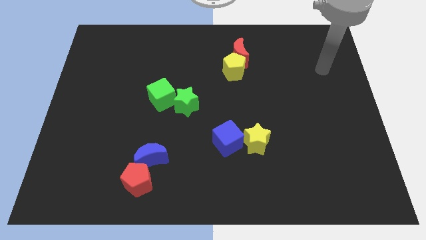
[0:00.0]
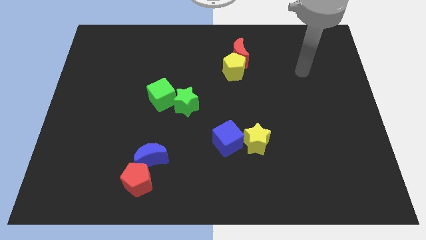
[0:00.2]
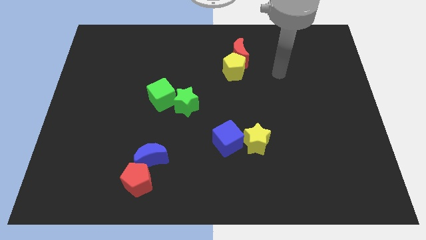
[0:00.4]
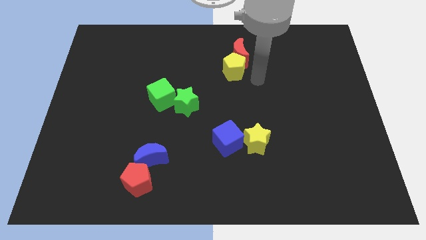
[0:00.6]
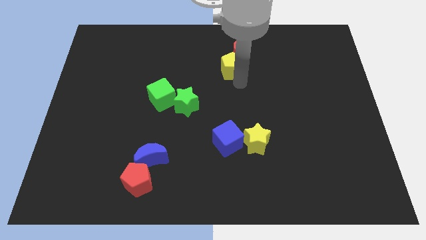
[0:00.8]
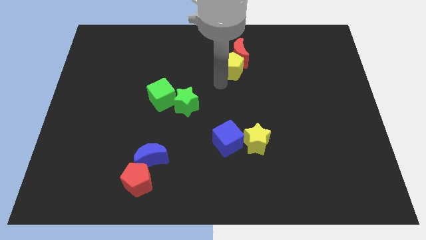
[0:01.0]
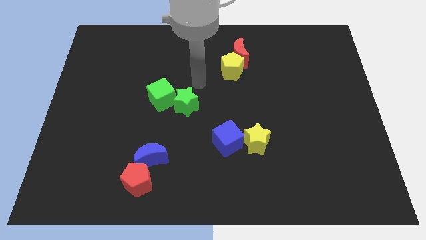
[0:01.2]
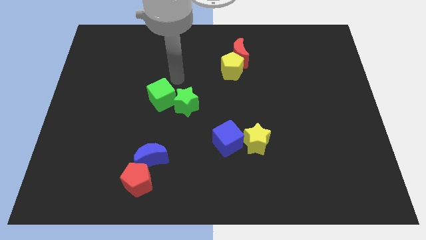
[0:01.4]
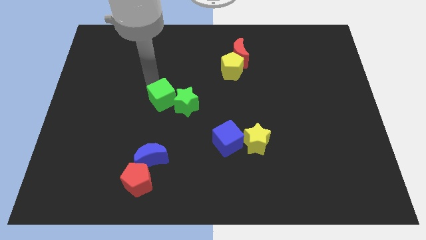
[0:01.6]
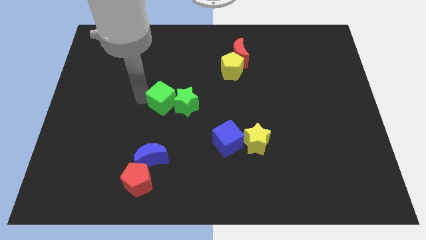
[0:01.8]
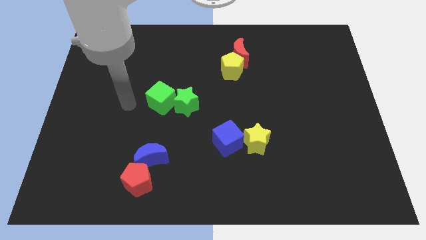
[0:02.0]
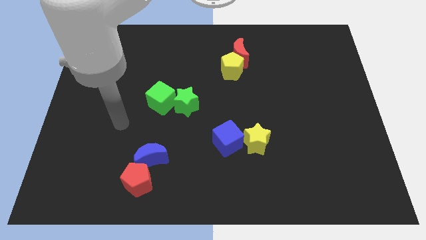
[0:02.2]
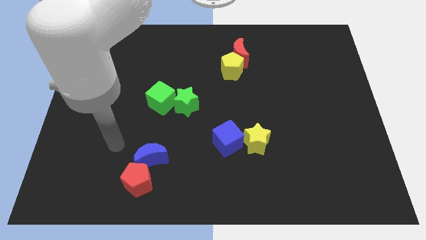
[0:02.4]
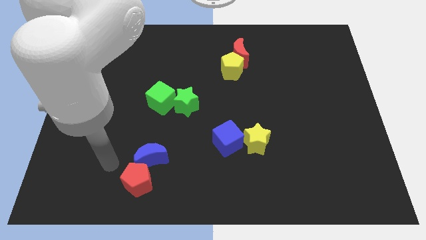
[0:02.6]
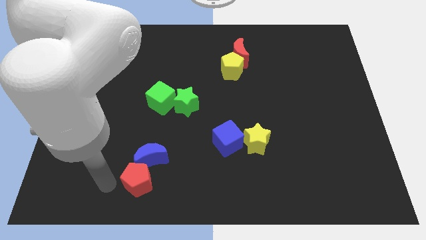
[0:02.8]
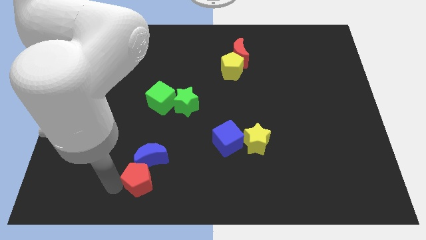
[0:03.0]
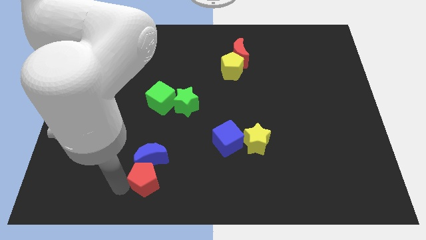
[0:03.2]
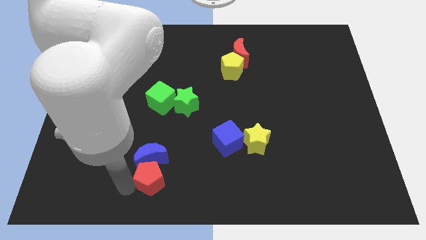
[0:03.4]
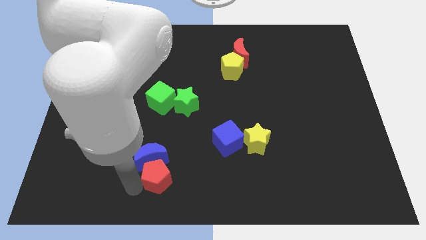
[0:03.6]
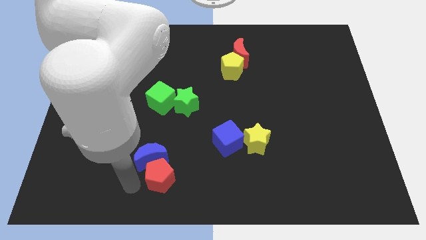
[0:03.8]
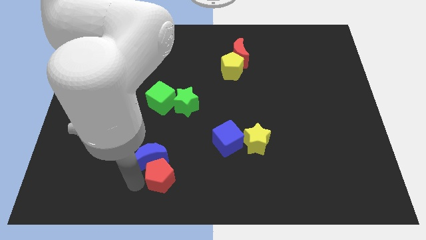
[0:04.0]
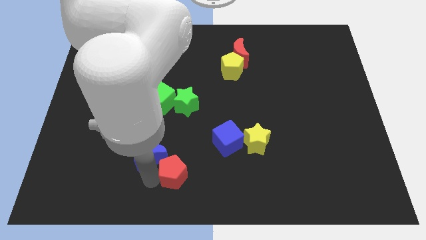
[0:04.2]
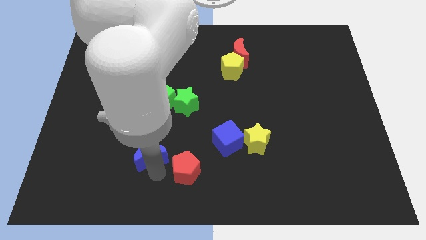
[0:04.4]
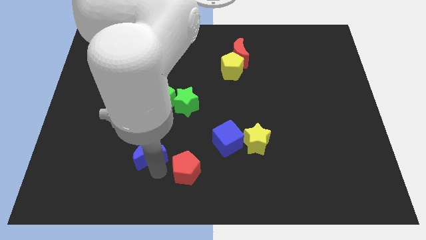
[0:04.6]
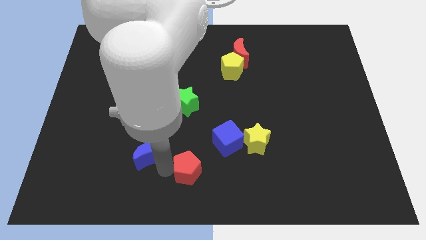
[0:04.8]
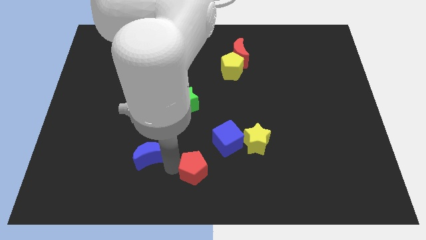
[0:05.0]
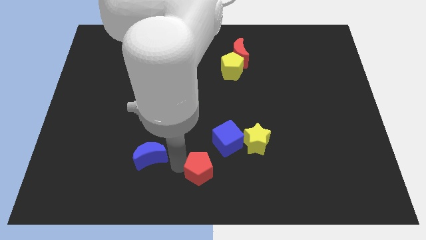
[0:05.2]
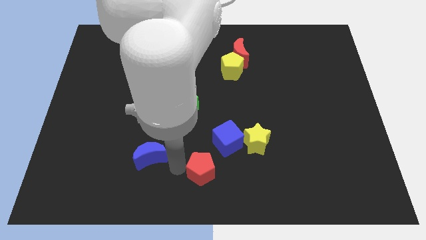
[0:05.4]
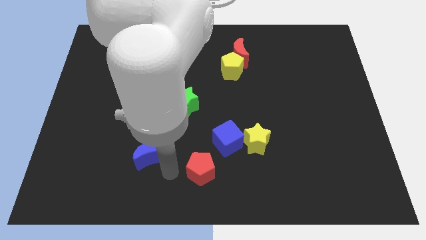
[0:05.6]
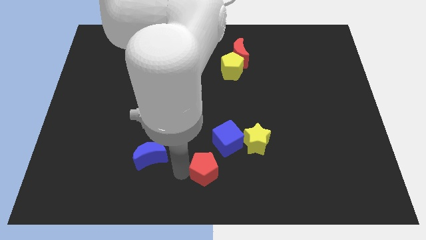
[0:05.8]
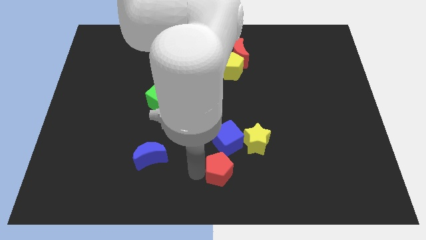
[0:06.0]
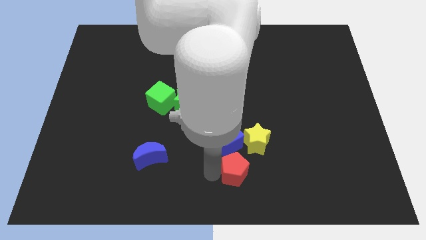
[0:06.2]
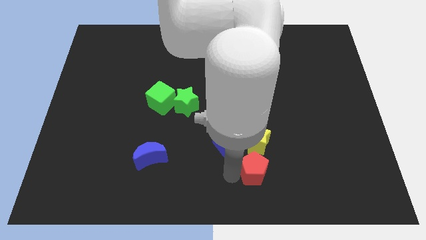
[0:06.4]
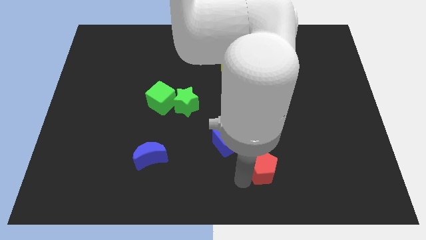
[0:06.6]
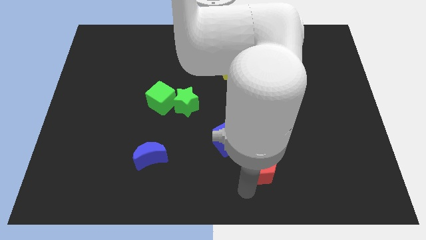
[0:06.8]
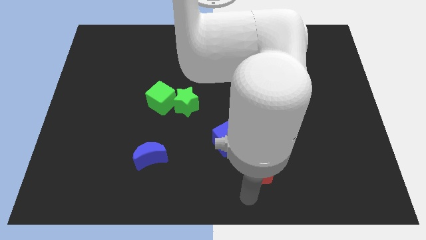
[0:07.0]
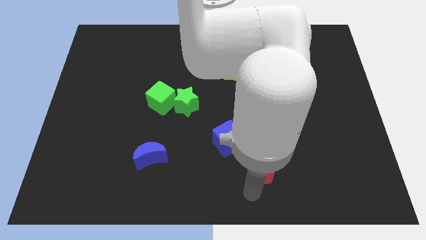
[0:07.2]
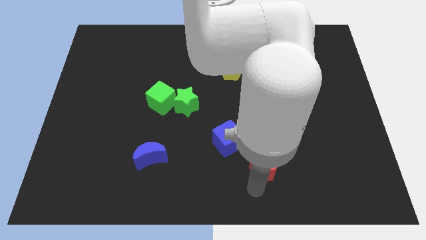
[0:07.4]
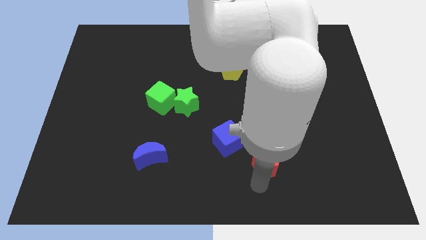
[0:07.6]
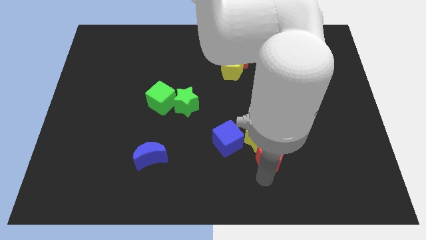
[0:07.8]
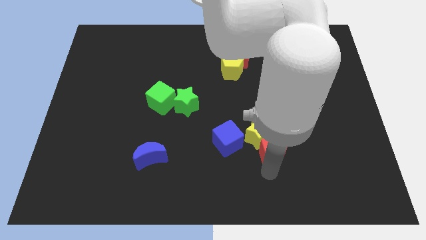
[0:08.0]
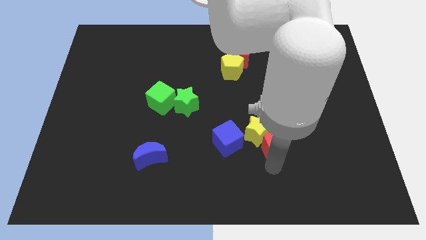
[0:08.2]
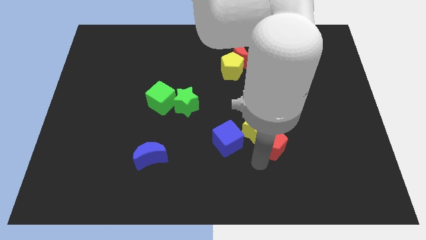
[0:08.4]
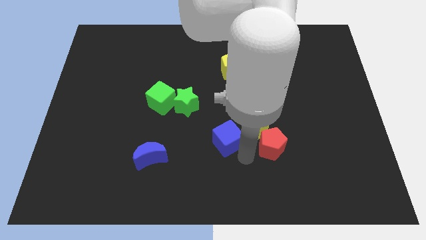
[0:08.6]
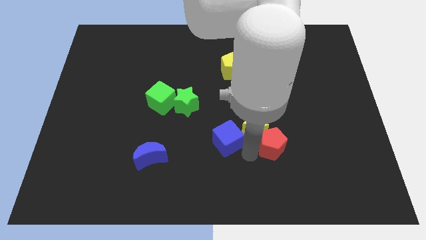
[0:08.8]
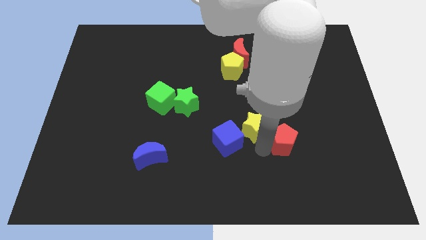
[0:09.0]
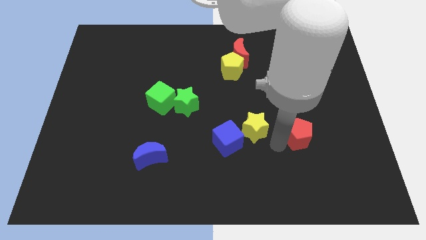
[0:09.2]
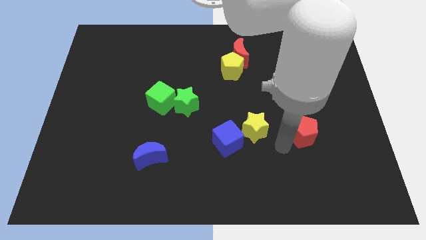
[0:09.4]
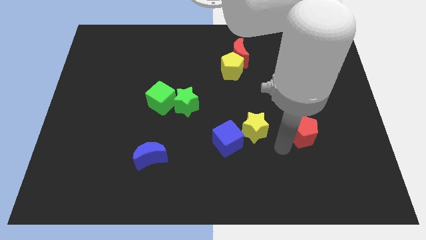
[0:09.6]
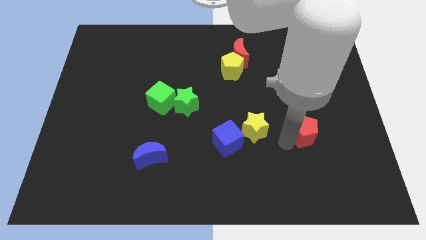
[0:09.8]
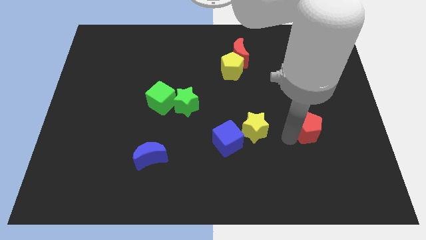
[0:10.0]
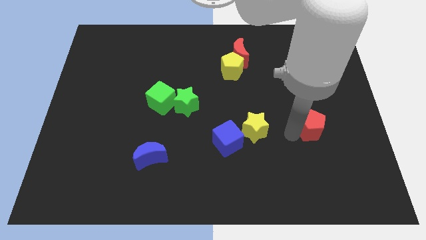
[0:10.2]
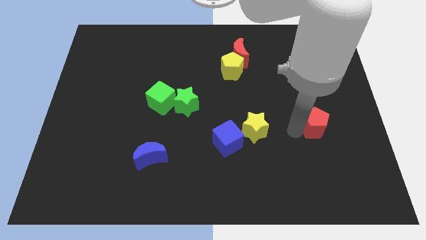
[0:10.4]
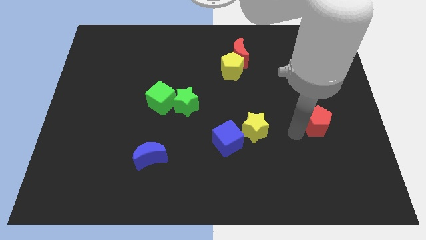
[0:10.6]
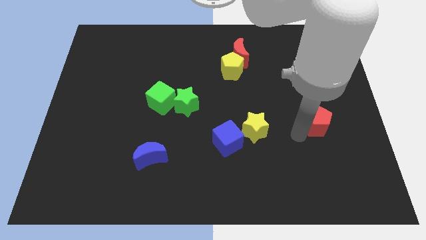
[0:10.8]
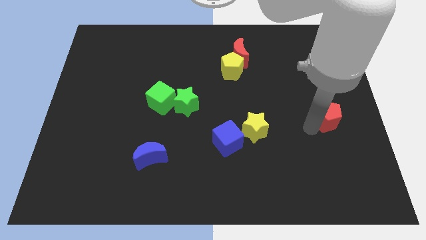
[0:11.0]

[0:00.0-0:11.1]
put the red pentagon to the right side of the board

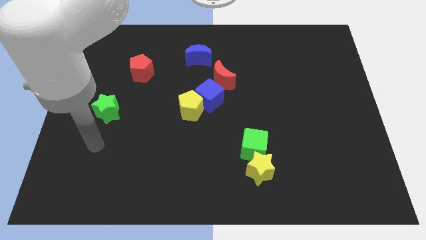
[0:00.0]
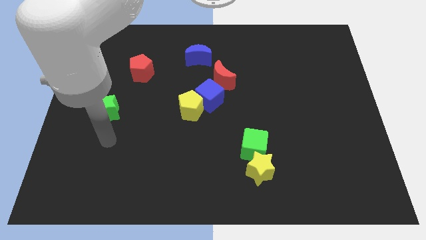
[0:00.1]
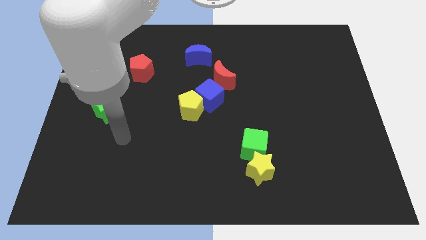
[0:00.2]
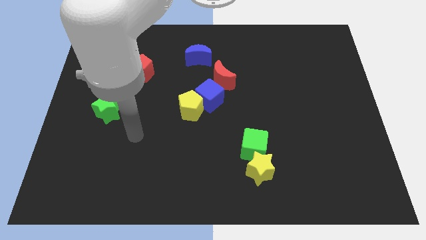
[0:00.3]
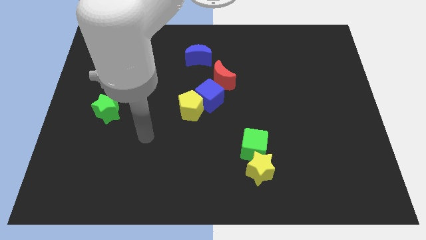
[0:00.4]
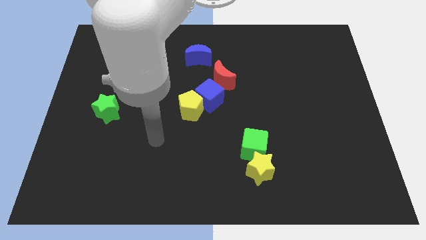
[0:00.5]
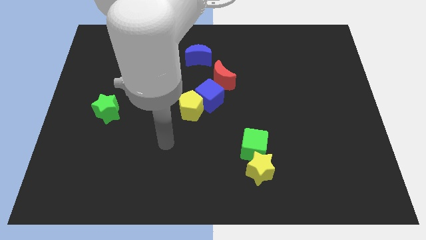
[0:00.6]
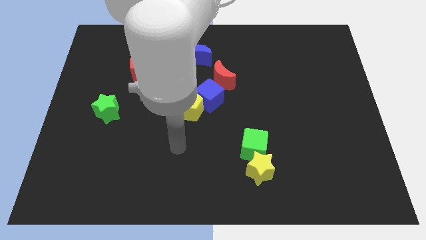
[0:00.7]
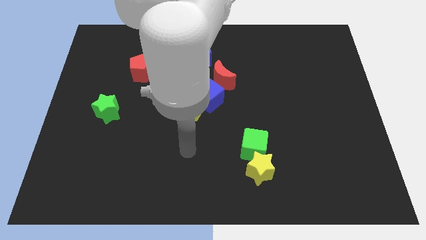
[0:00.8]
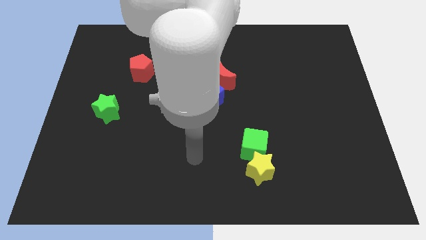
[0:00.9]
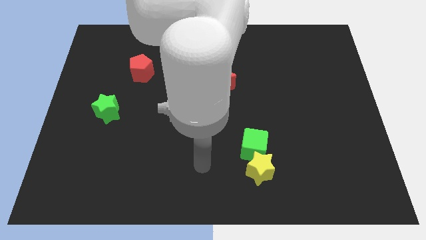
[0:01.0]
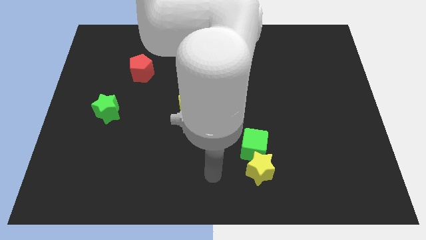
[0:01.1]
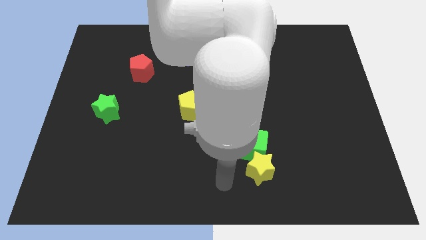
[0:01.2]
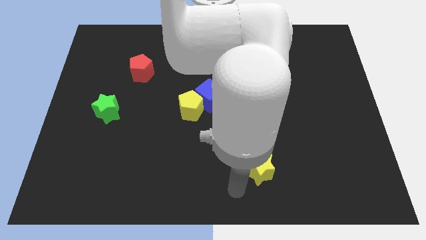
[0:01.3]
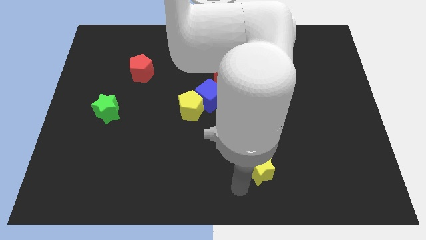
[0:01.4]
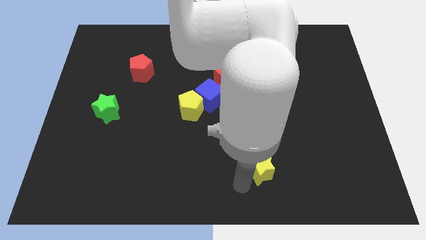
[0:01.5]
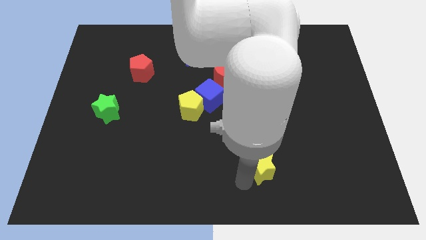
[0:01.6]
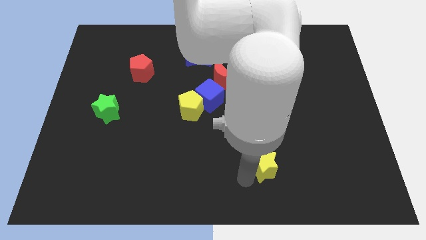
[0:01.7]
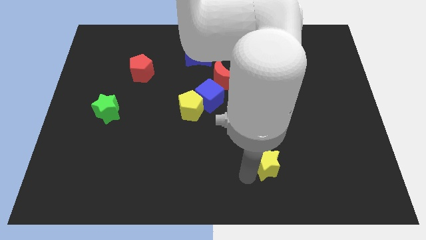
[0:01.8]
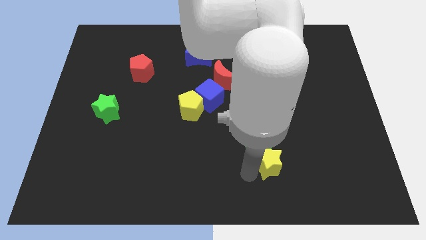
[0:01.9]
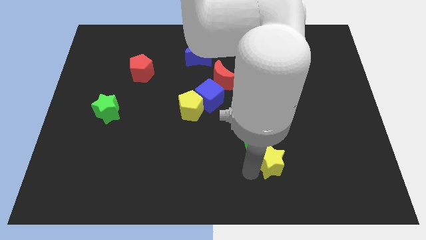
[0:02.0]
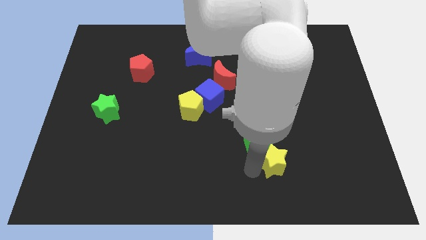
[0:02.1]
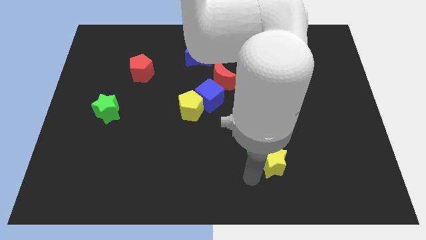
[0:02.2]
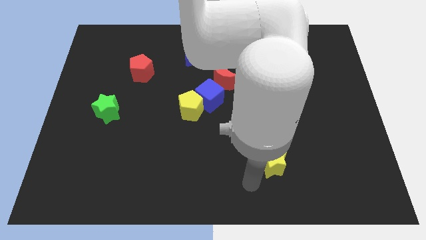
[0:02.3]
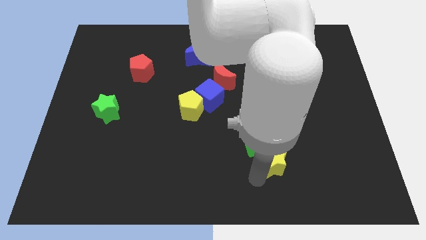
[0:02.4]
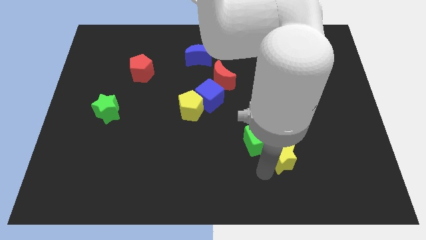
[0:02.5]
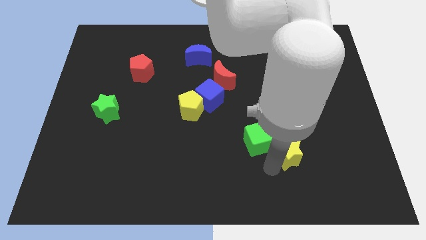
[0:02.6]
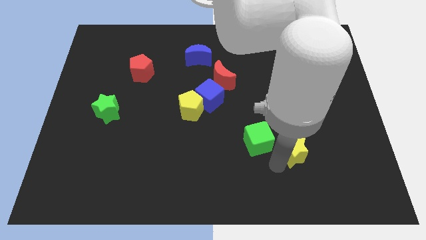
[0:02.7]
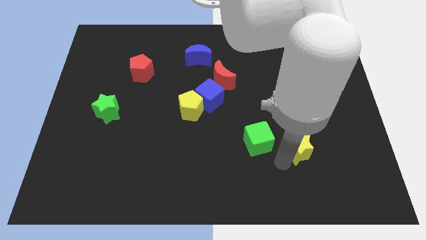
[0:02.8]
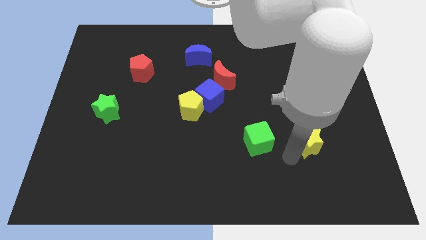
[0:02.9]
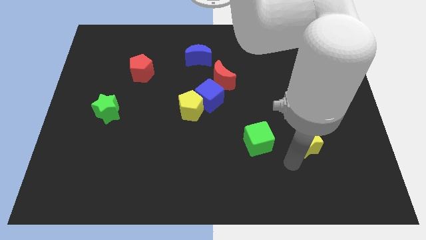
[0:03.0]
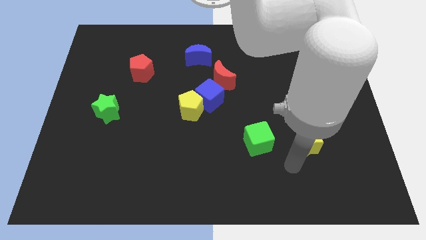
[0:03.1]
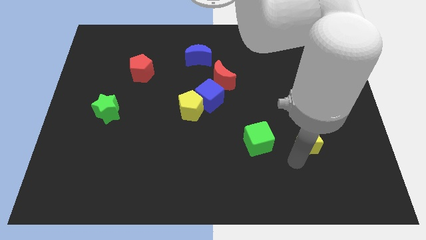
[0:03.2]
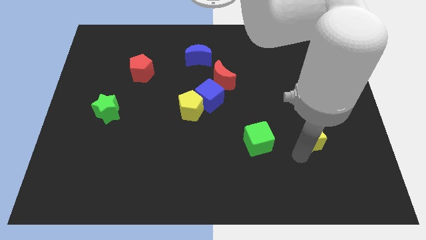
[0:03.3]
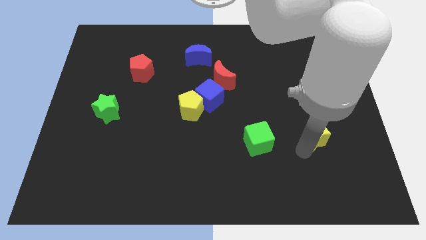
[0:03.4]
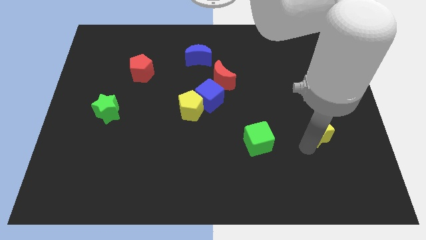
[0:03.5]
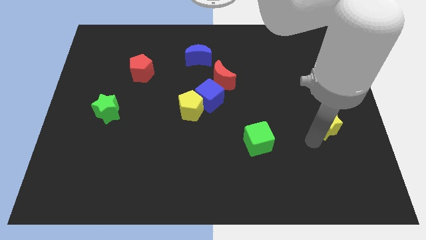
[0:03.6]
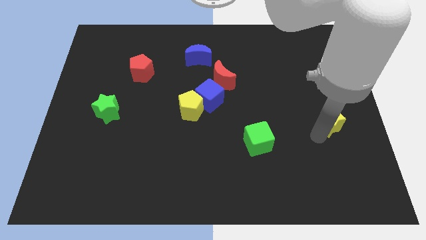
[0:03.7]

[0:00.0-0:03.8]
push the yellow star to the right side
